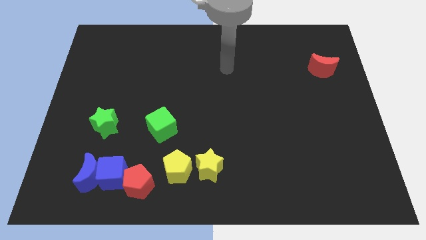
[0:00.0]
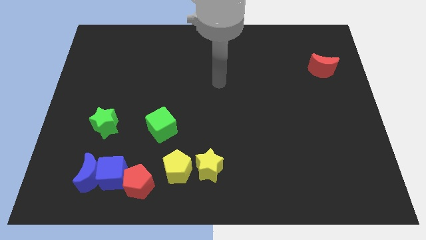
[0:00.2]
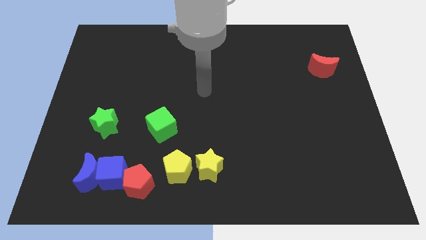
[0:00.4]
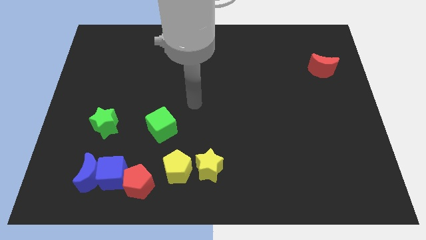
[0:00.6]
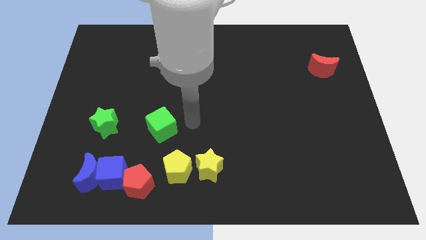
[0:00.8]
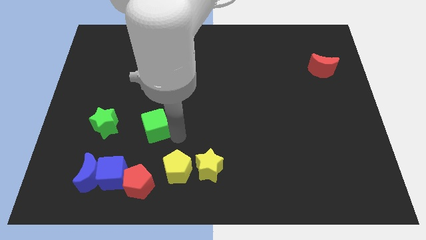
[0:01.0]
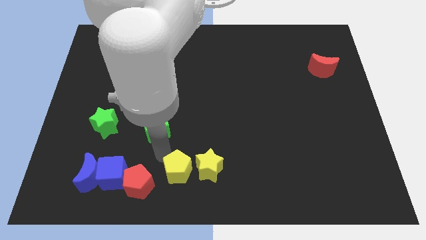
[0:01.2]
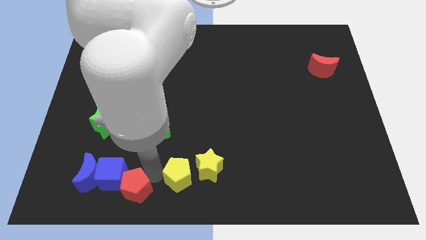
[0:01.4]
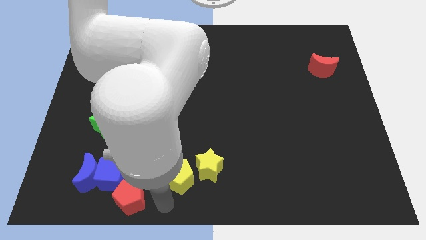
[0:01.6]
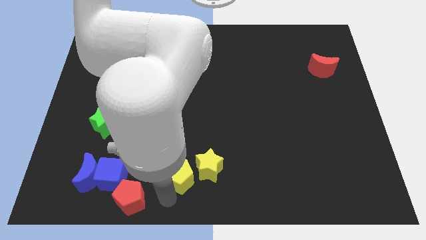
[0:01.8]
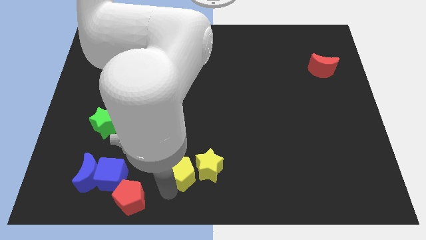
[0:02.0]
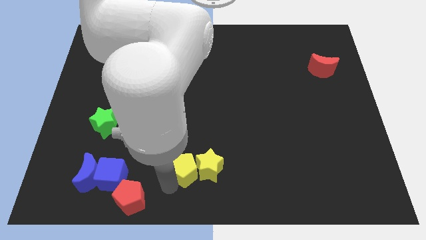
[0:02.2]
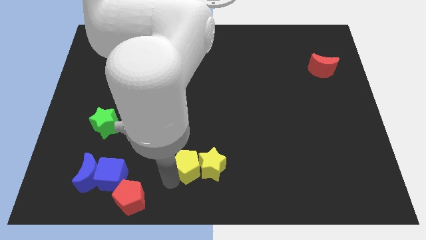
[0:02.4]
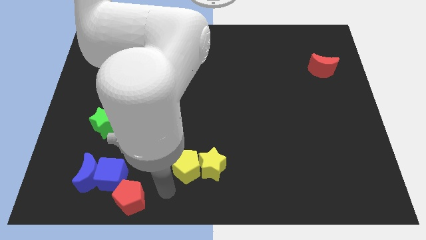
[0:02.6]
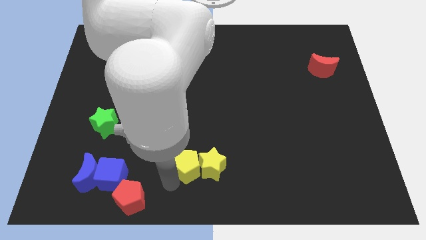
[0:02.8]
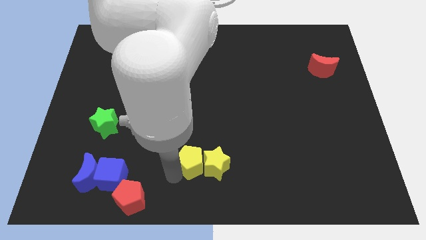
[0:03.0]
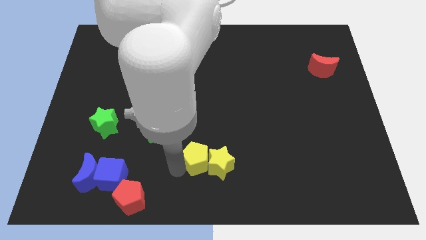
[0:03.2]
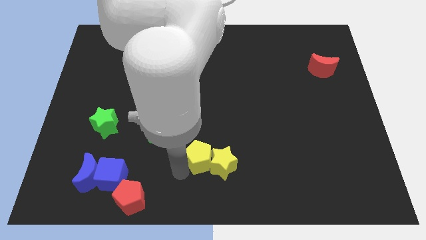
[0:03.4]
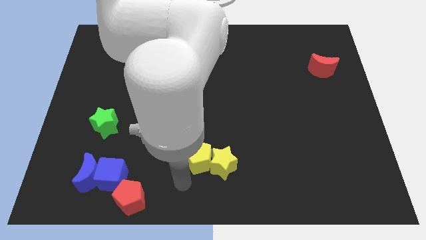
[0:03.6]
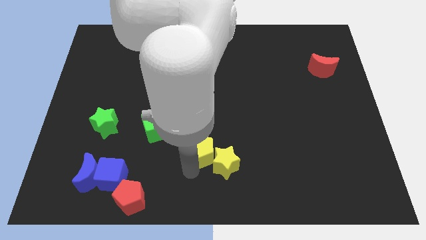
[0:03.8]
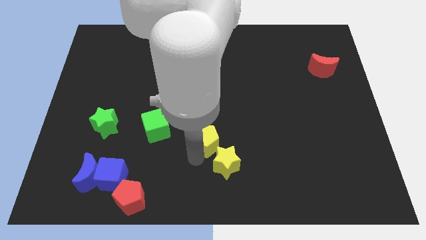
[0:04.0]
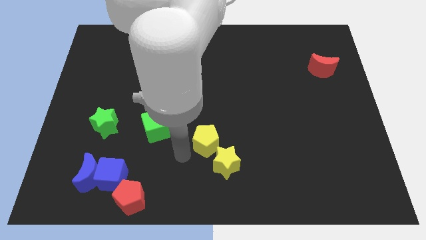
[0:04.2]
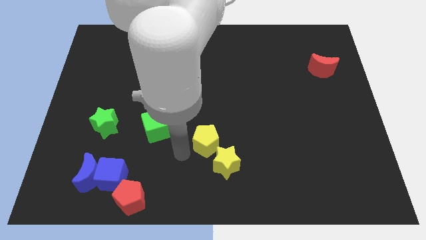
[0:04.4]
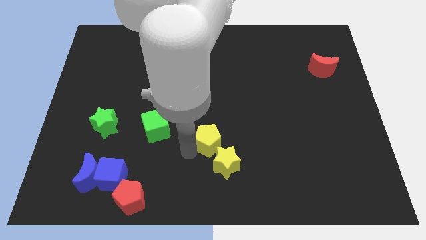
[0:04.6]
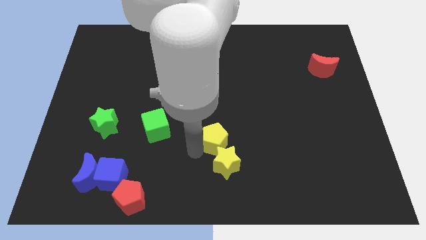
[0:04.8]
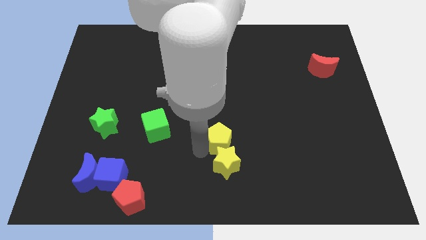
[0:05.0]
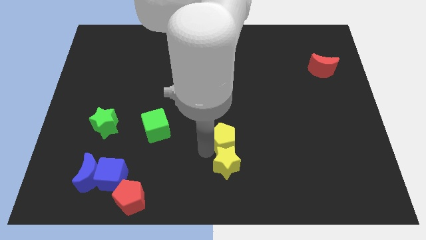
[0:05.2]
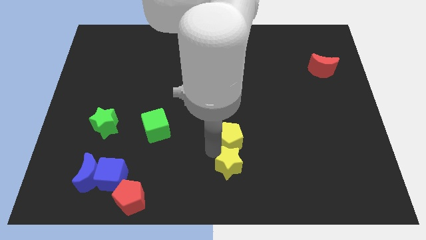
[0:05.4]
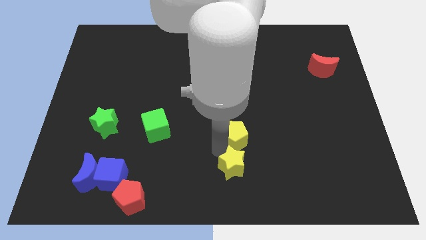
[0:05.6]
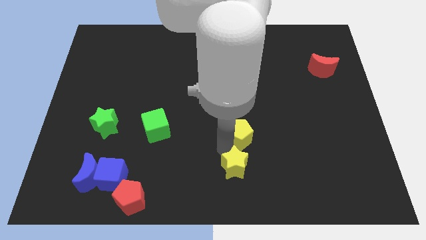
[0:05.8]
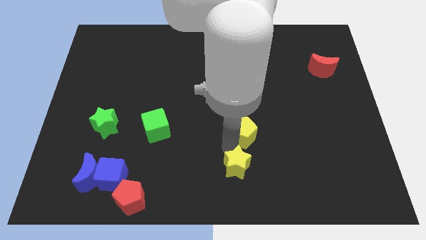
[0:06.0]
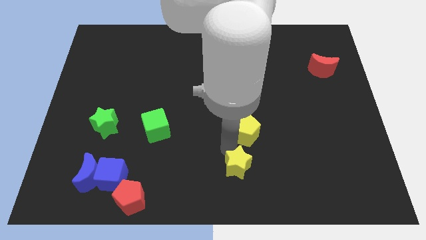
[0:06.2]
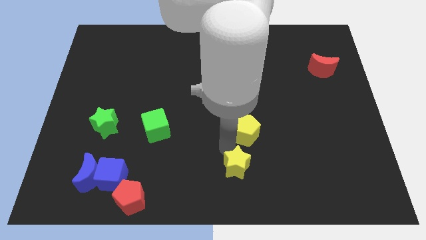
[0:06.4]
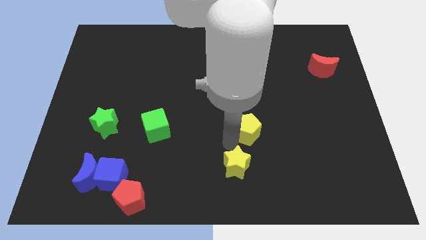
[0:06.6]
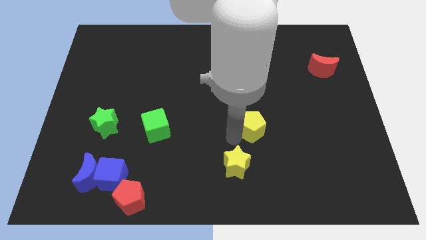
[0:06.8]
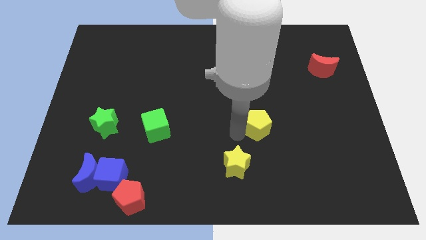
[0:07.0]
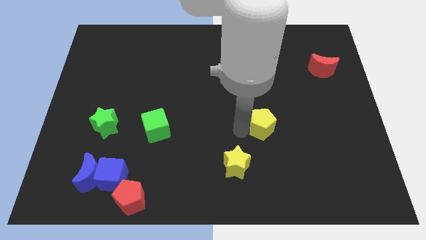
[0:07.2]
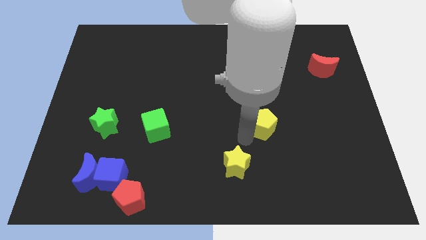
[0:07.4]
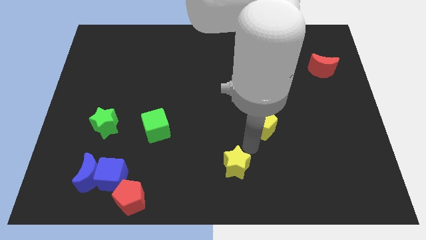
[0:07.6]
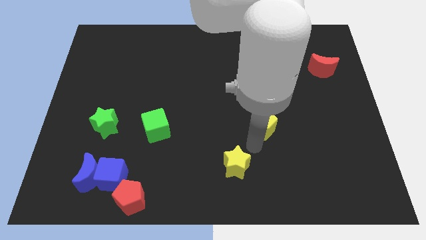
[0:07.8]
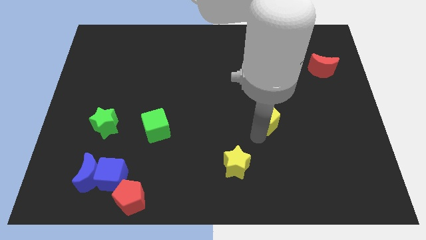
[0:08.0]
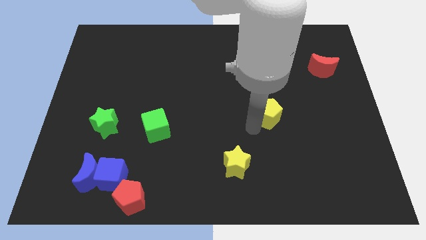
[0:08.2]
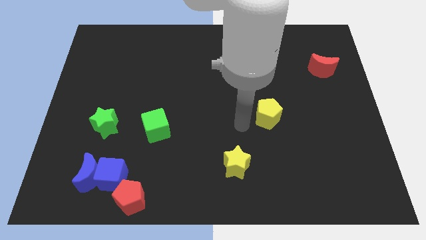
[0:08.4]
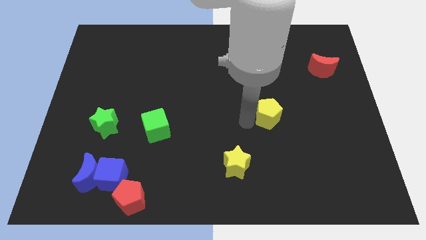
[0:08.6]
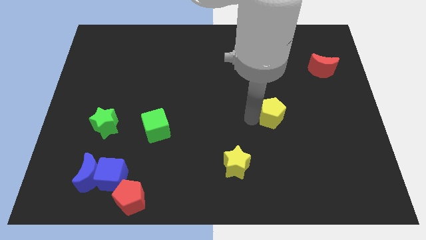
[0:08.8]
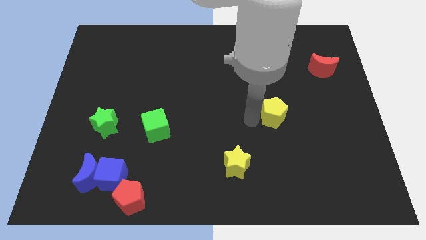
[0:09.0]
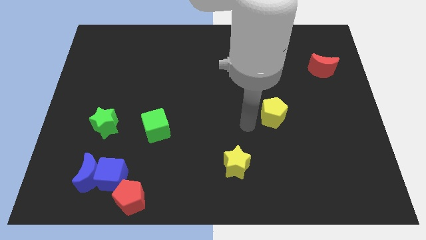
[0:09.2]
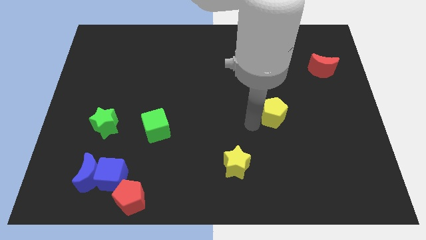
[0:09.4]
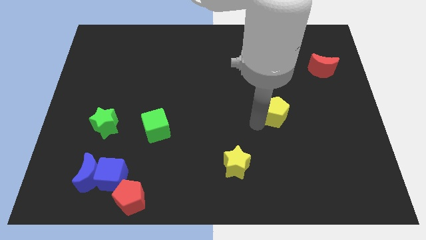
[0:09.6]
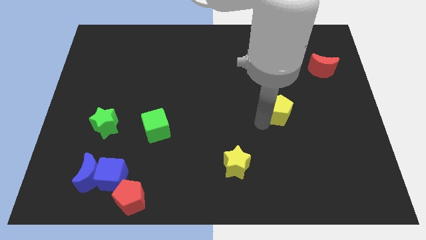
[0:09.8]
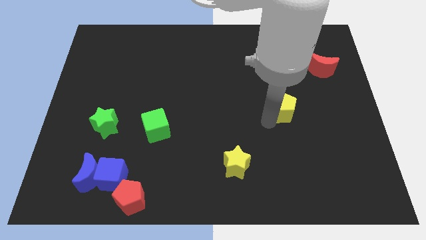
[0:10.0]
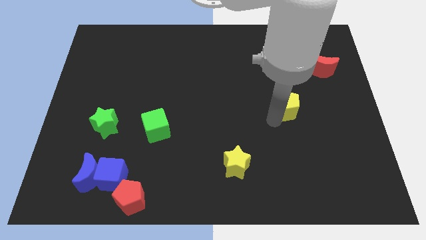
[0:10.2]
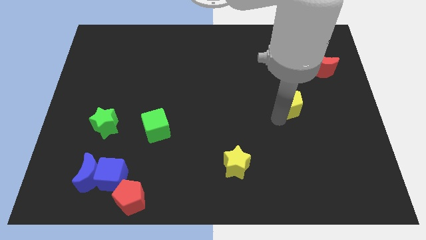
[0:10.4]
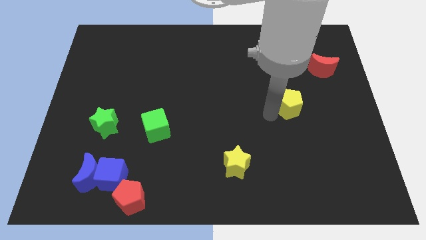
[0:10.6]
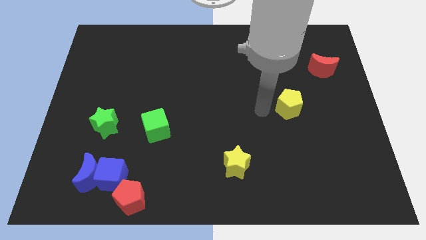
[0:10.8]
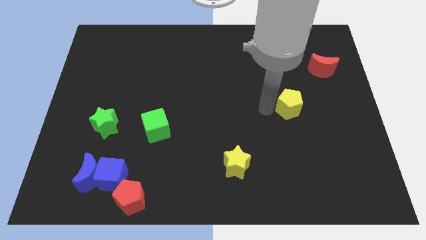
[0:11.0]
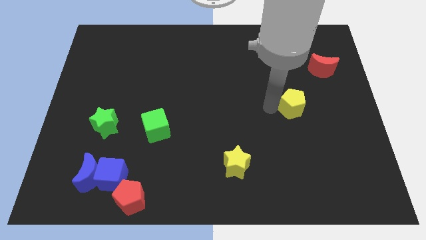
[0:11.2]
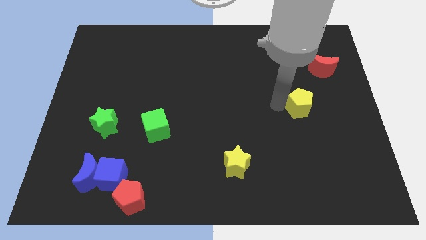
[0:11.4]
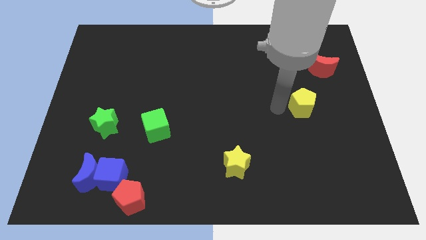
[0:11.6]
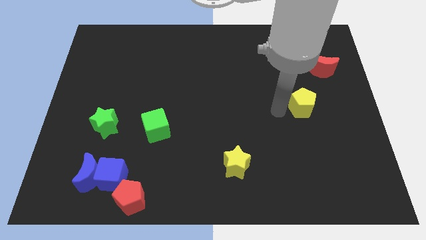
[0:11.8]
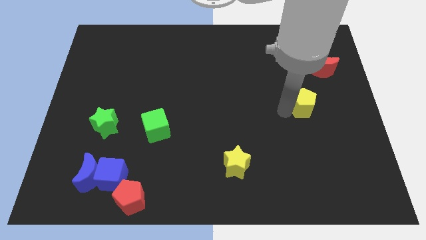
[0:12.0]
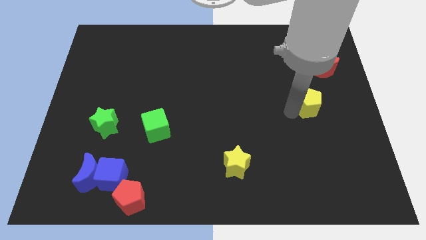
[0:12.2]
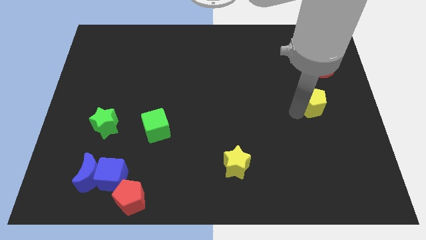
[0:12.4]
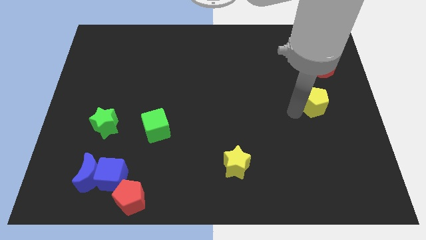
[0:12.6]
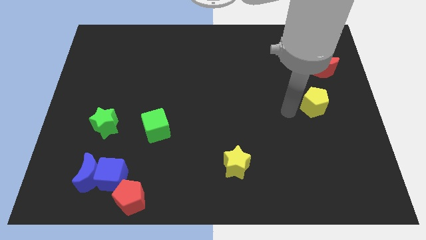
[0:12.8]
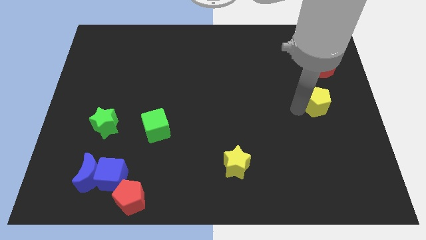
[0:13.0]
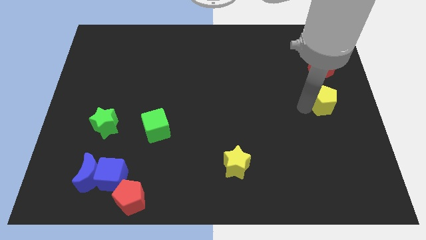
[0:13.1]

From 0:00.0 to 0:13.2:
put the yellow pentagon to the center right

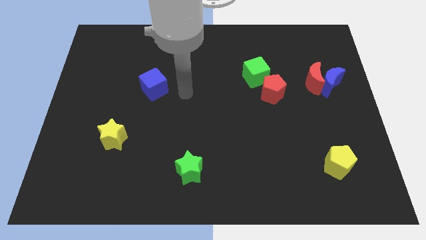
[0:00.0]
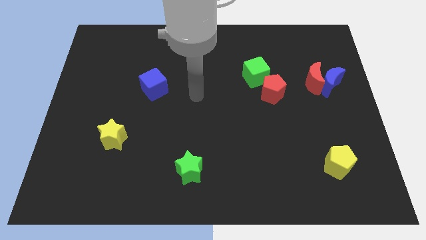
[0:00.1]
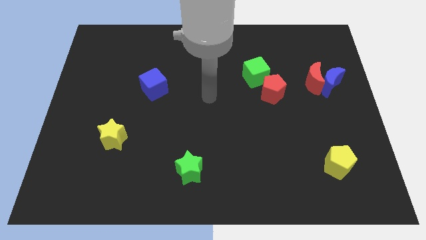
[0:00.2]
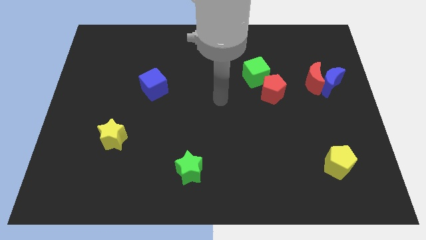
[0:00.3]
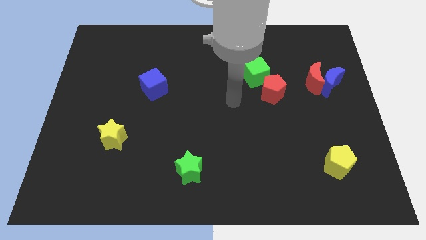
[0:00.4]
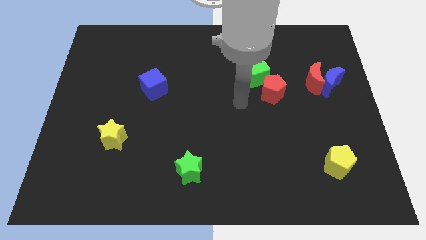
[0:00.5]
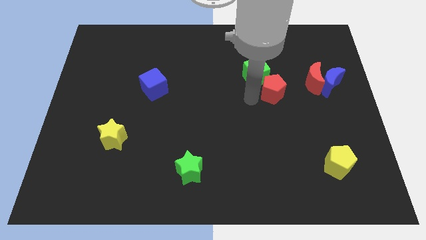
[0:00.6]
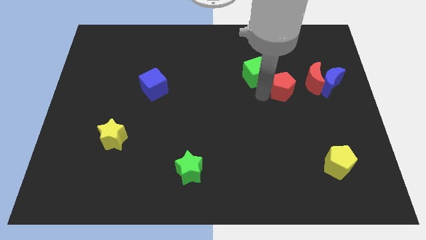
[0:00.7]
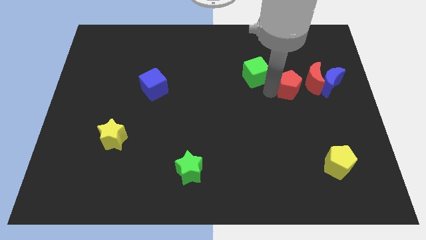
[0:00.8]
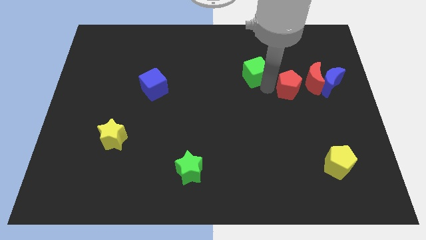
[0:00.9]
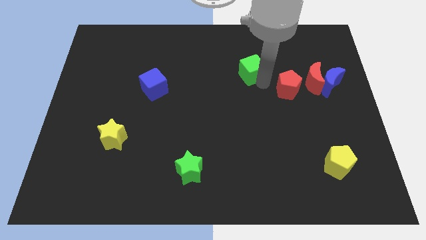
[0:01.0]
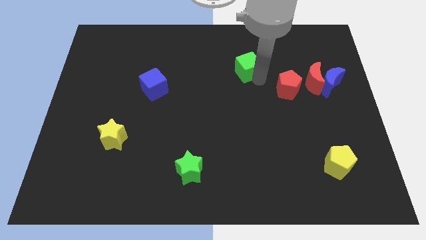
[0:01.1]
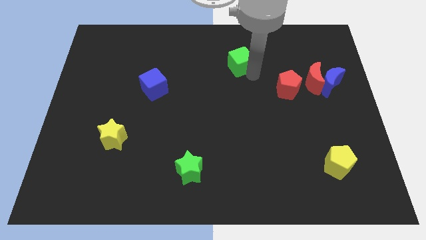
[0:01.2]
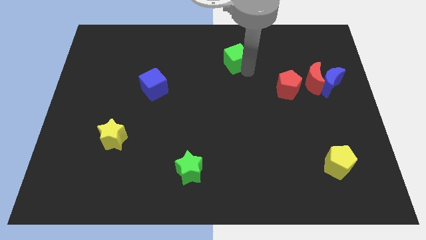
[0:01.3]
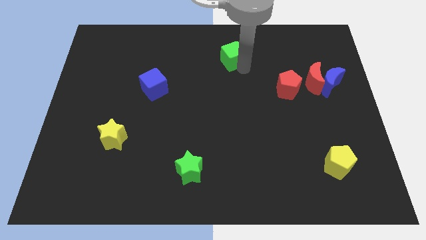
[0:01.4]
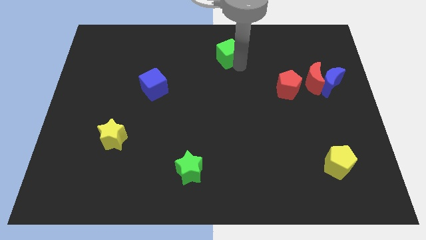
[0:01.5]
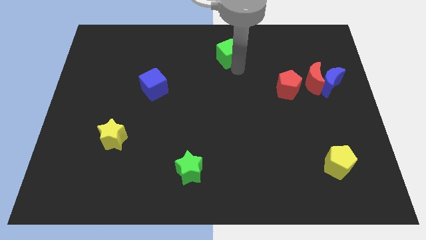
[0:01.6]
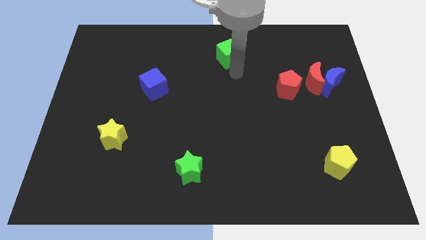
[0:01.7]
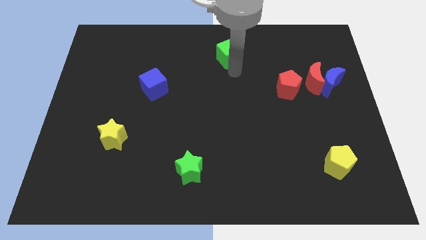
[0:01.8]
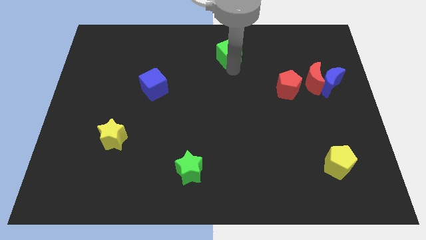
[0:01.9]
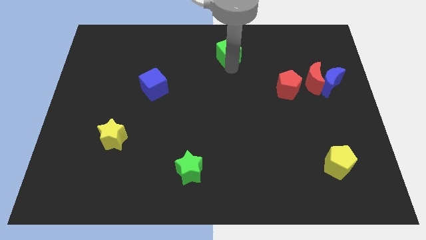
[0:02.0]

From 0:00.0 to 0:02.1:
put the green cube to the towards your base
